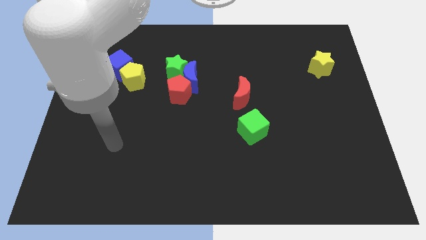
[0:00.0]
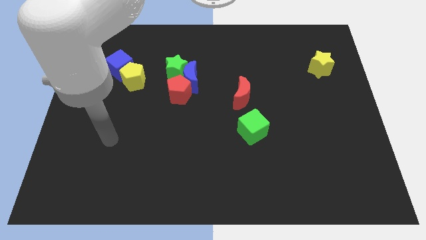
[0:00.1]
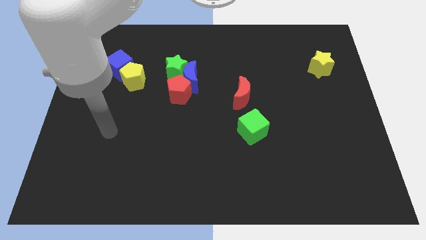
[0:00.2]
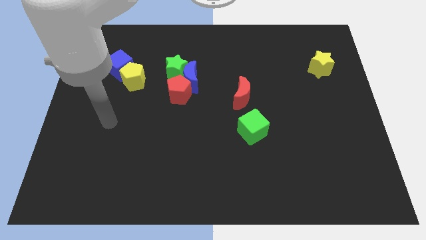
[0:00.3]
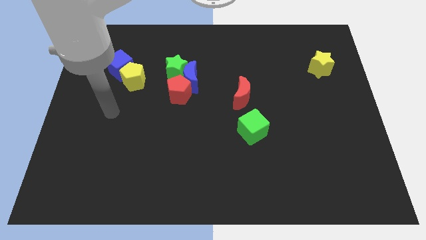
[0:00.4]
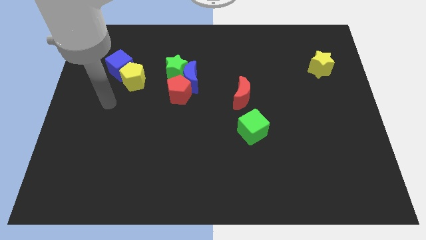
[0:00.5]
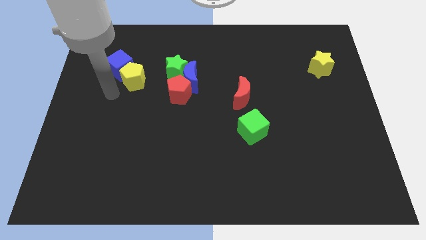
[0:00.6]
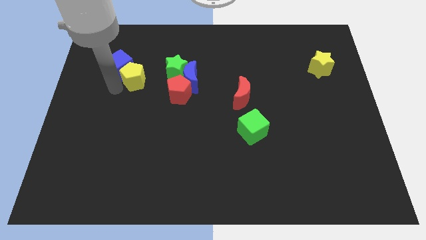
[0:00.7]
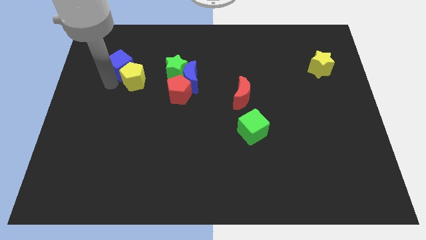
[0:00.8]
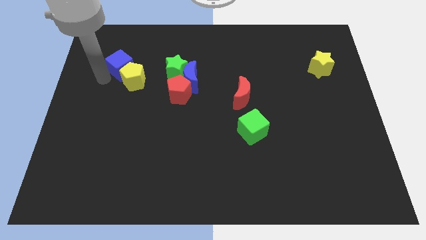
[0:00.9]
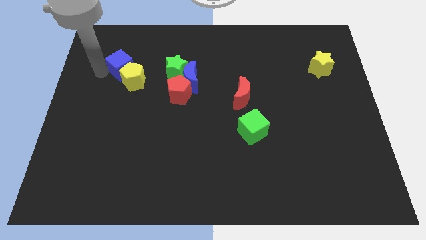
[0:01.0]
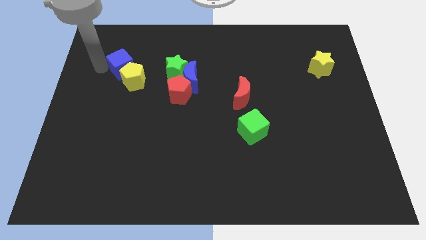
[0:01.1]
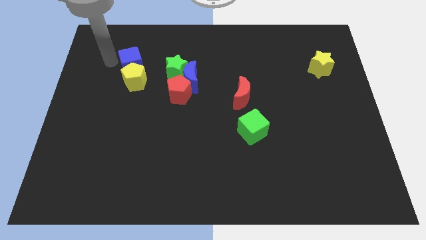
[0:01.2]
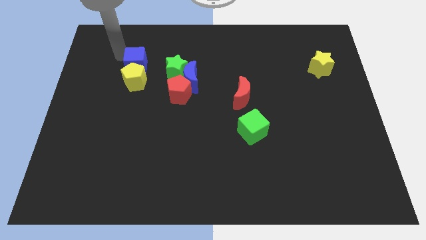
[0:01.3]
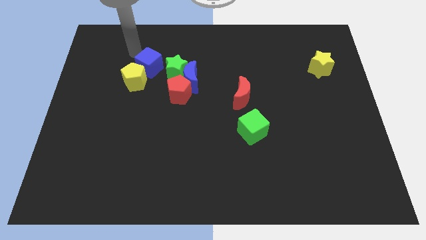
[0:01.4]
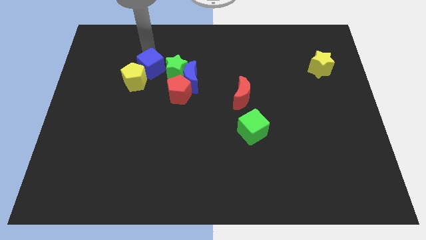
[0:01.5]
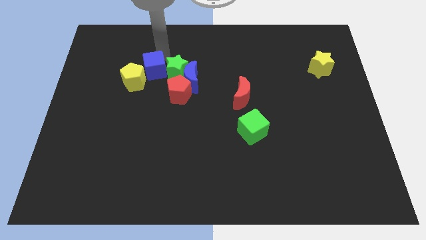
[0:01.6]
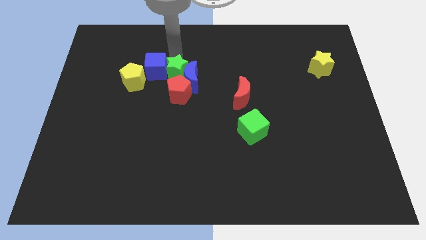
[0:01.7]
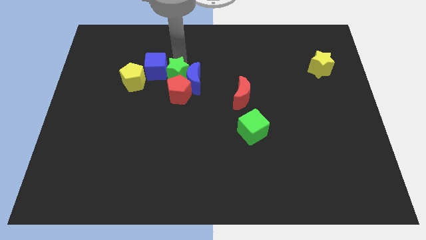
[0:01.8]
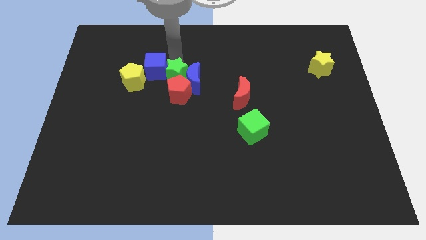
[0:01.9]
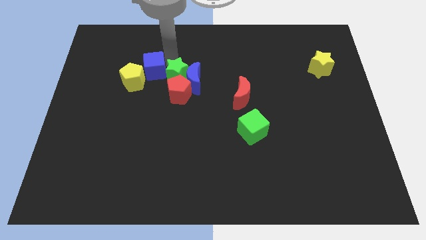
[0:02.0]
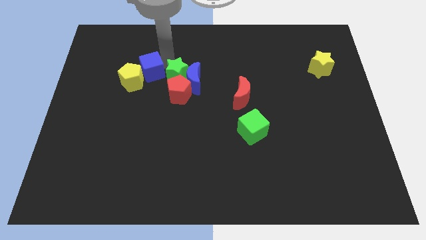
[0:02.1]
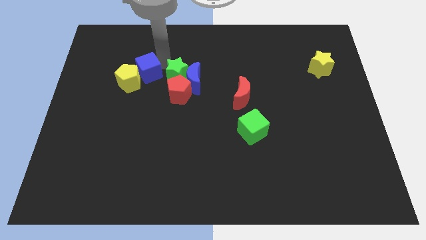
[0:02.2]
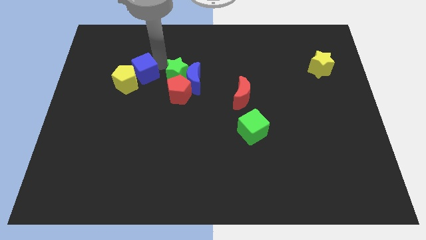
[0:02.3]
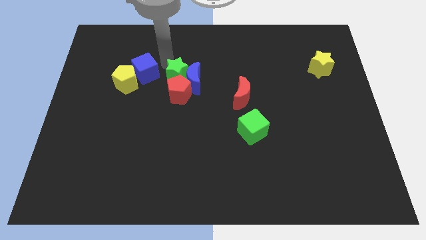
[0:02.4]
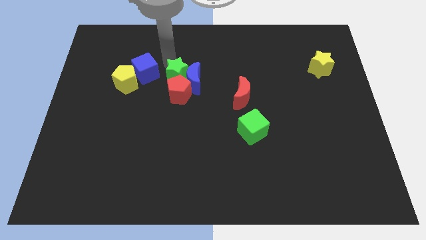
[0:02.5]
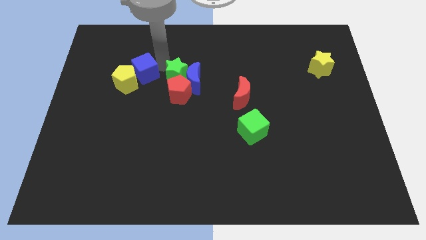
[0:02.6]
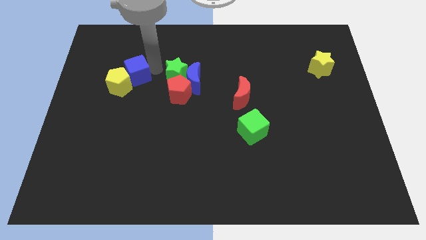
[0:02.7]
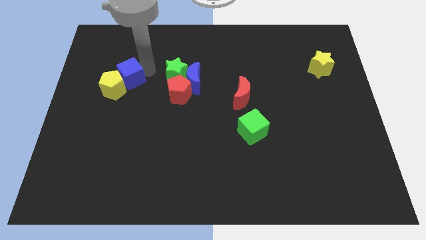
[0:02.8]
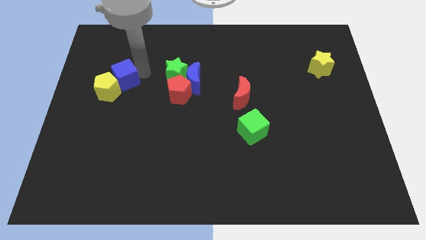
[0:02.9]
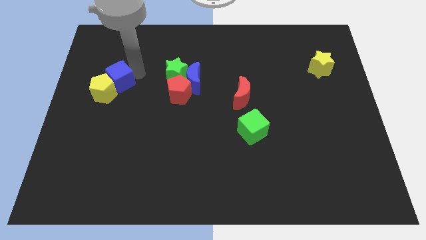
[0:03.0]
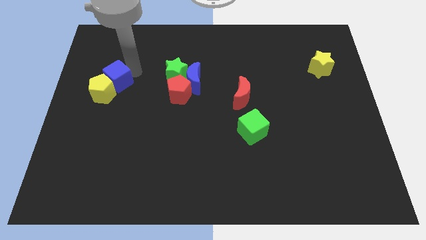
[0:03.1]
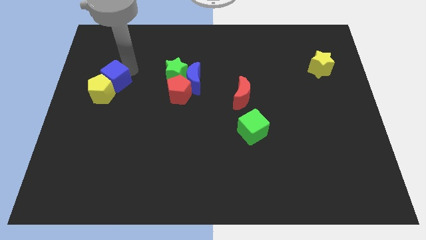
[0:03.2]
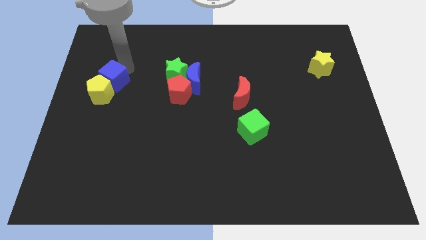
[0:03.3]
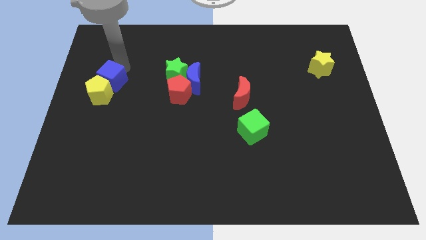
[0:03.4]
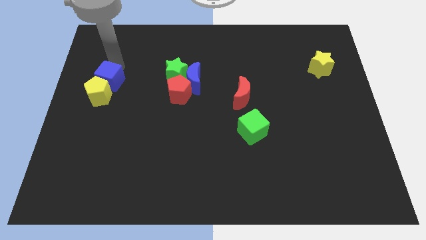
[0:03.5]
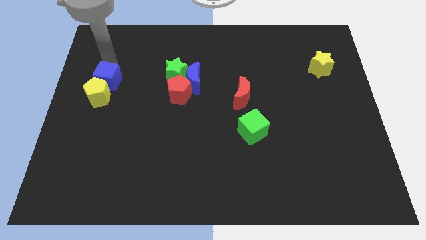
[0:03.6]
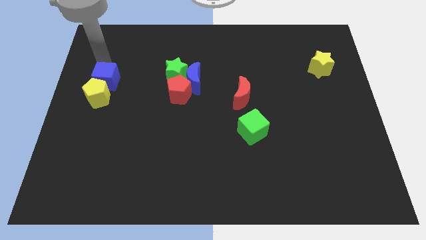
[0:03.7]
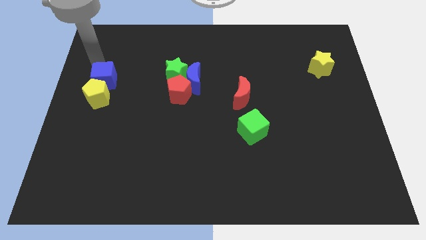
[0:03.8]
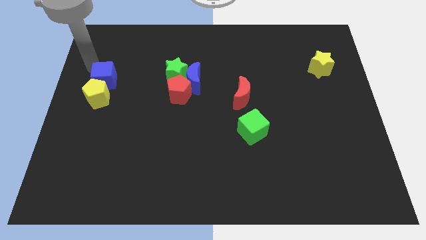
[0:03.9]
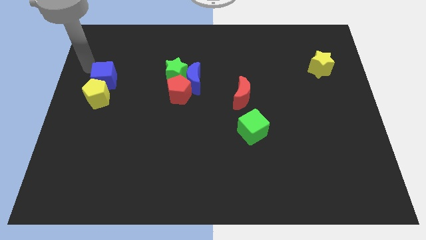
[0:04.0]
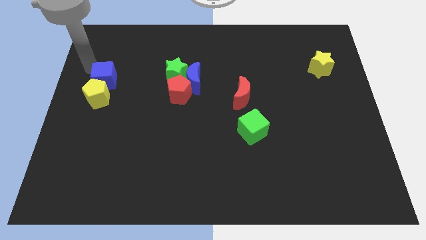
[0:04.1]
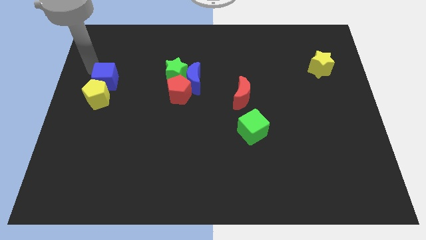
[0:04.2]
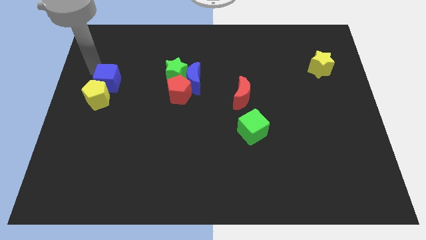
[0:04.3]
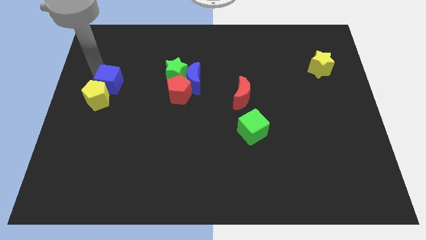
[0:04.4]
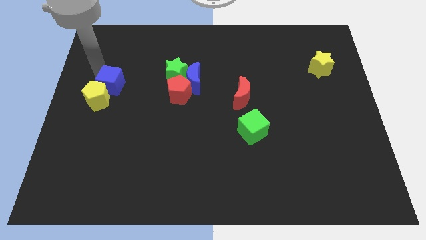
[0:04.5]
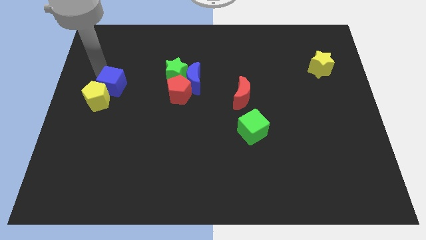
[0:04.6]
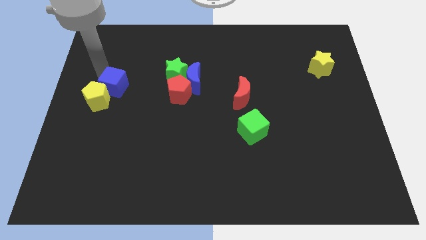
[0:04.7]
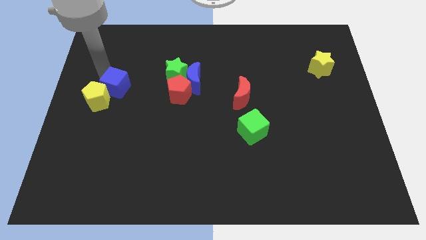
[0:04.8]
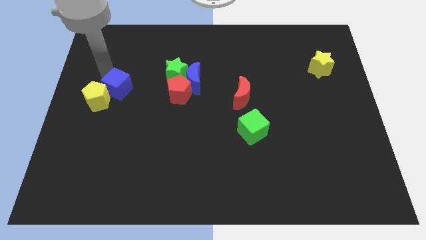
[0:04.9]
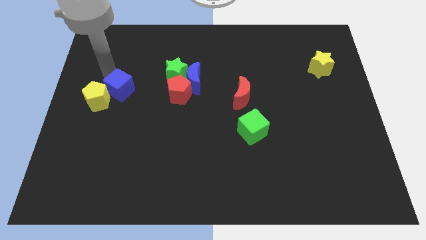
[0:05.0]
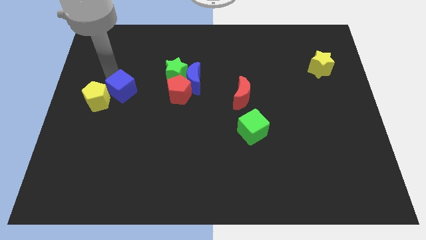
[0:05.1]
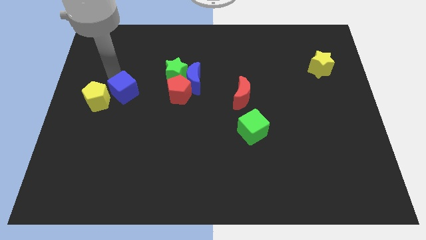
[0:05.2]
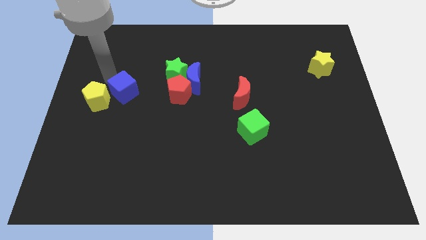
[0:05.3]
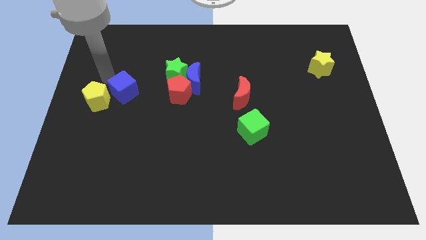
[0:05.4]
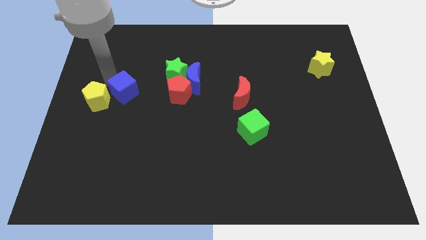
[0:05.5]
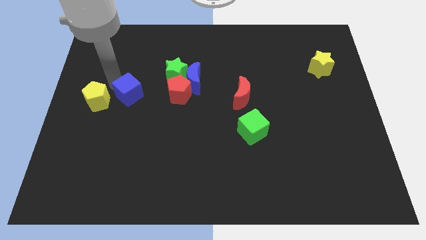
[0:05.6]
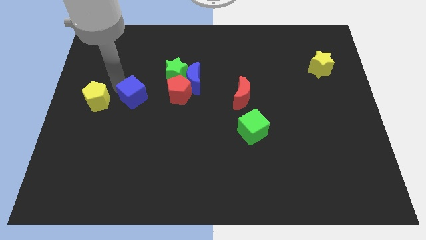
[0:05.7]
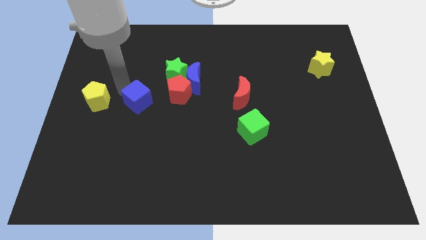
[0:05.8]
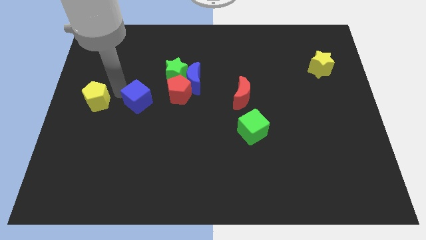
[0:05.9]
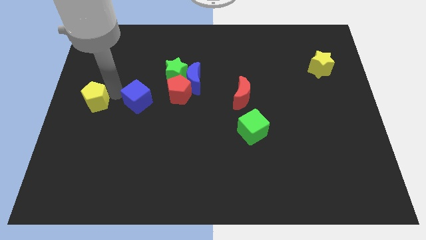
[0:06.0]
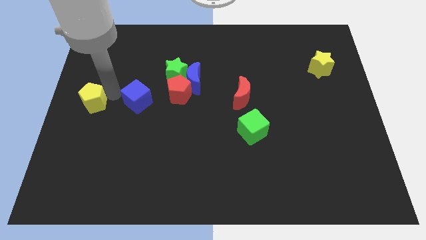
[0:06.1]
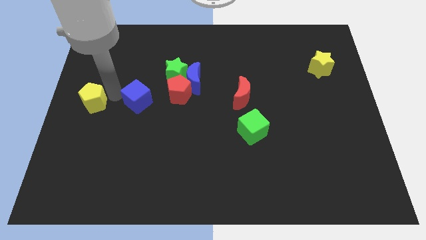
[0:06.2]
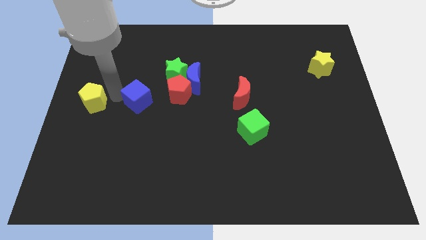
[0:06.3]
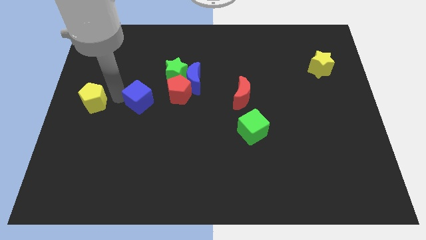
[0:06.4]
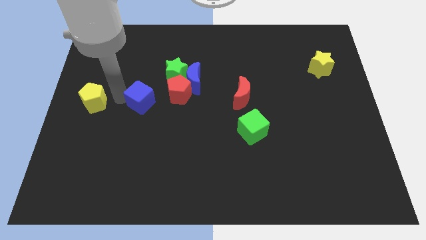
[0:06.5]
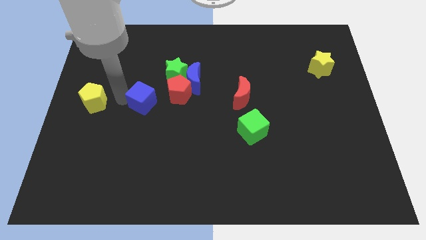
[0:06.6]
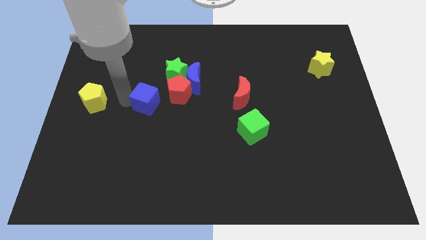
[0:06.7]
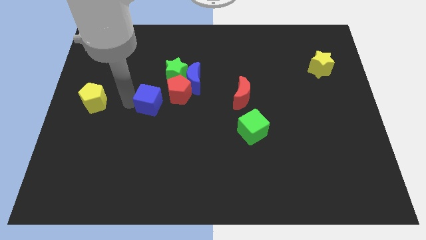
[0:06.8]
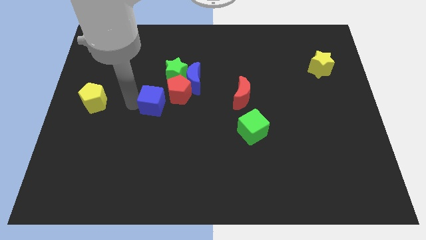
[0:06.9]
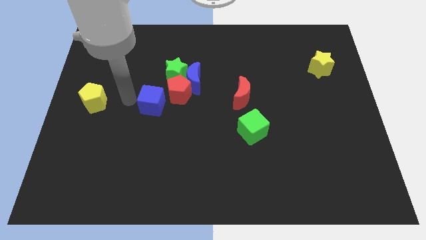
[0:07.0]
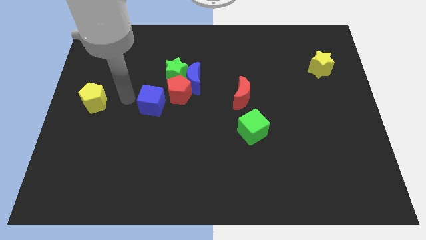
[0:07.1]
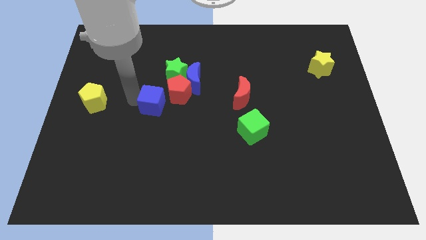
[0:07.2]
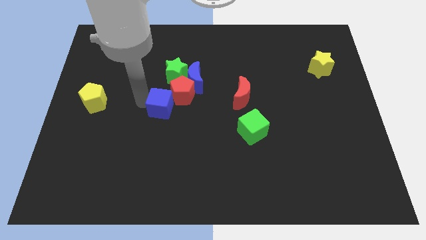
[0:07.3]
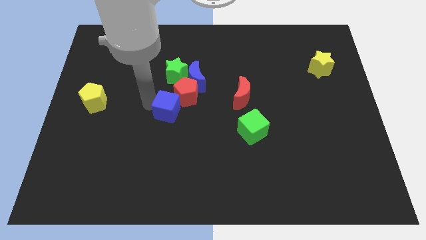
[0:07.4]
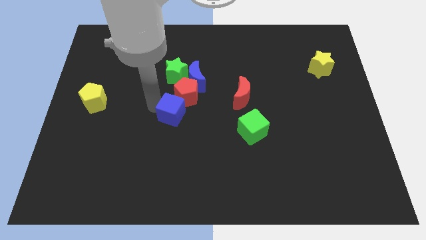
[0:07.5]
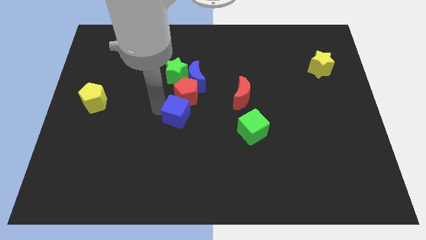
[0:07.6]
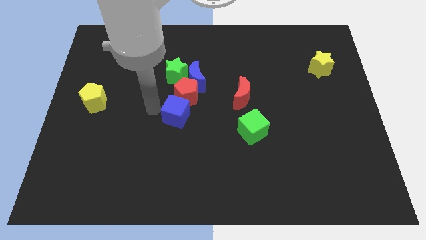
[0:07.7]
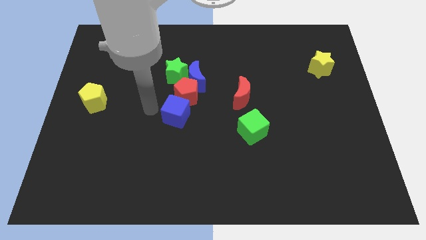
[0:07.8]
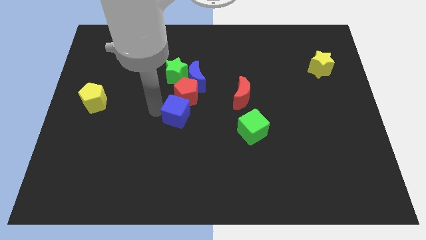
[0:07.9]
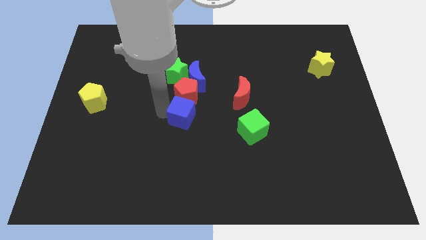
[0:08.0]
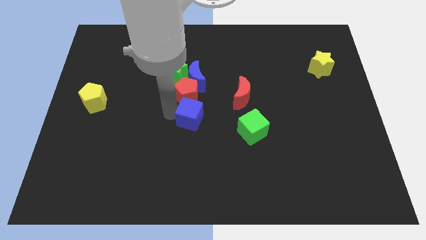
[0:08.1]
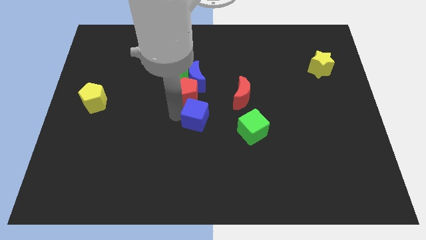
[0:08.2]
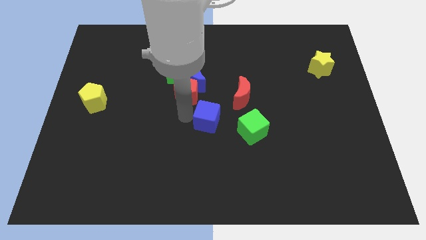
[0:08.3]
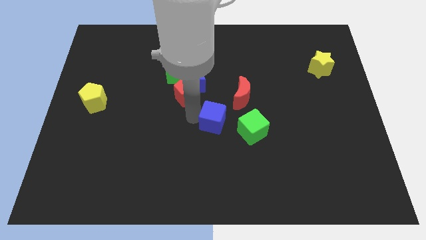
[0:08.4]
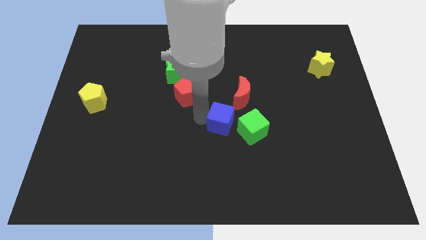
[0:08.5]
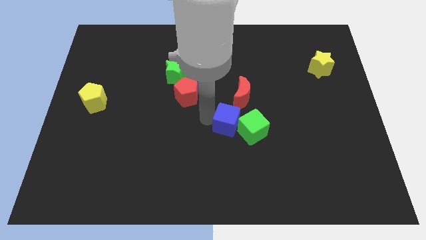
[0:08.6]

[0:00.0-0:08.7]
put the blue cube to the green cube
